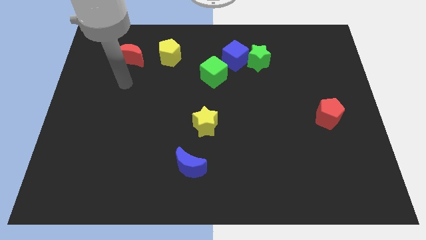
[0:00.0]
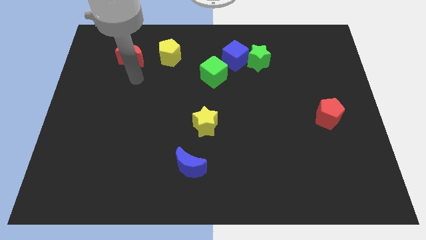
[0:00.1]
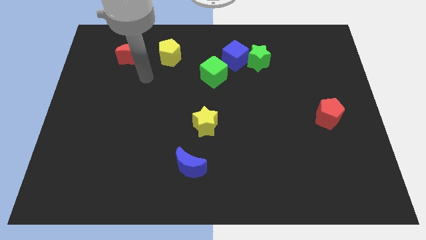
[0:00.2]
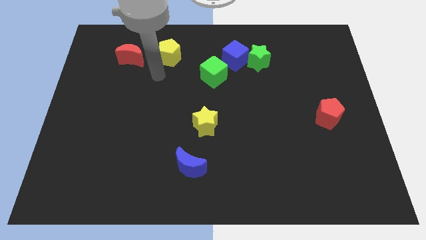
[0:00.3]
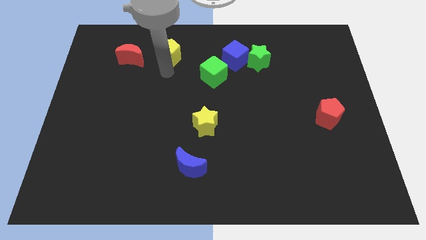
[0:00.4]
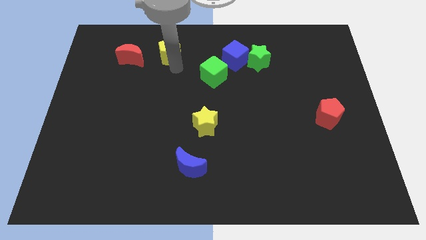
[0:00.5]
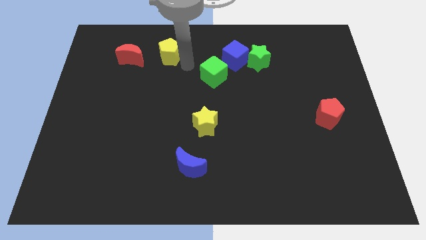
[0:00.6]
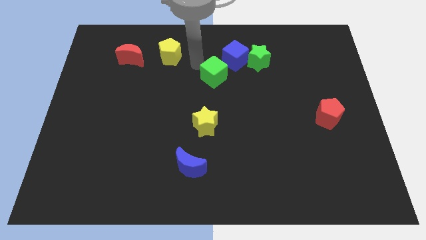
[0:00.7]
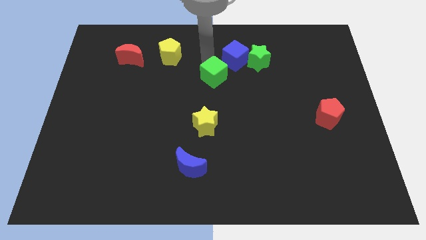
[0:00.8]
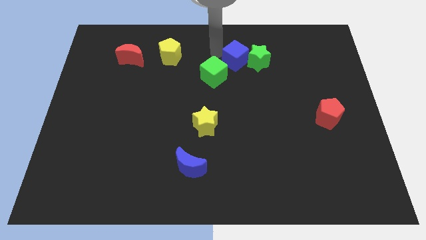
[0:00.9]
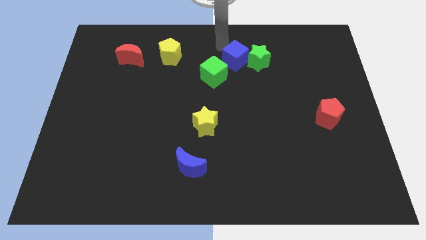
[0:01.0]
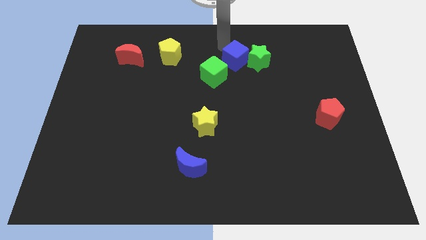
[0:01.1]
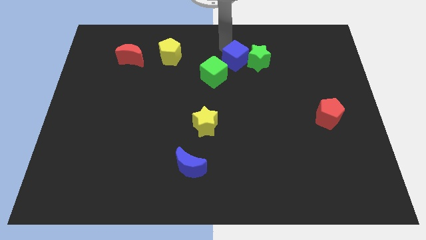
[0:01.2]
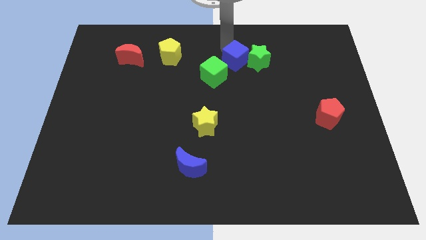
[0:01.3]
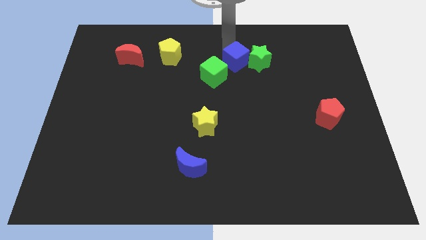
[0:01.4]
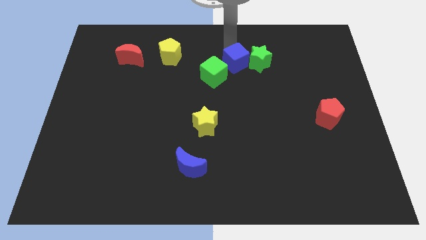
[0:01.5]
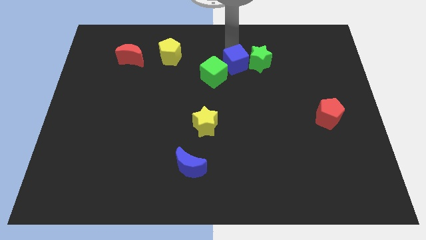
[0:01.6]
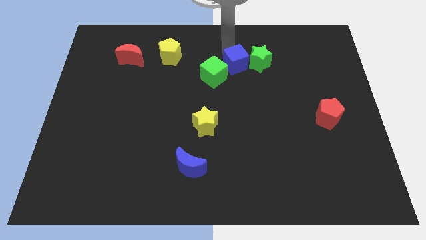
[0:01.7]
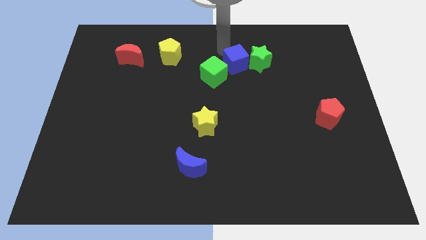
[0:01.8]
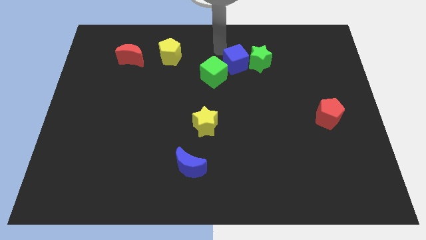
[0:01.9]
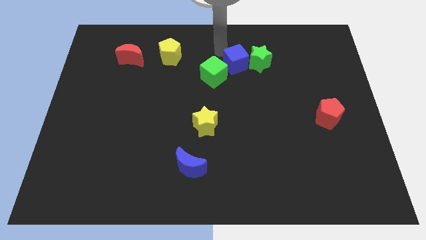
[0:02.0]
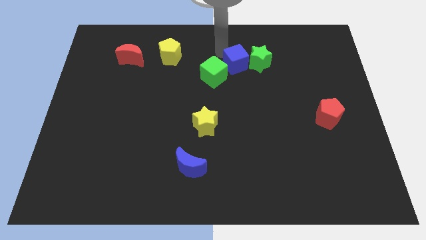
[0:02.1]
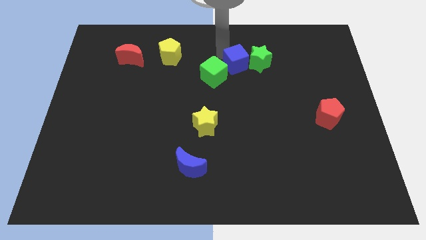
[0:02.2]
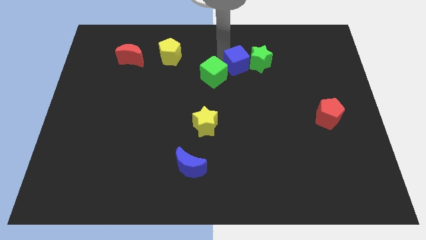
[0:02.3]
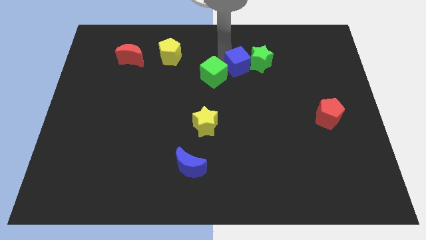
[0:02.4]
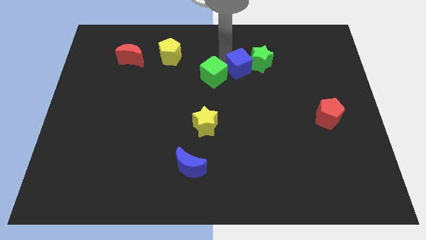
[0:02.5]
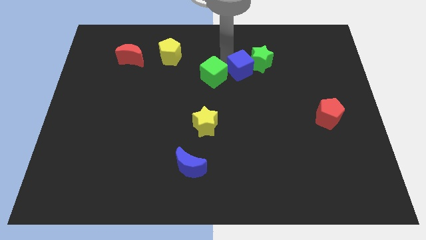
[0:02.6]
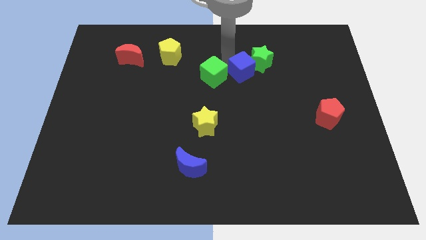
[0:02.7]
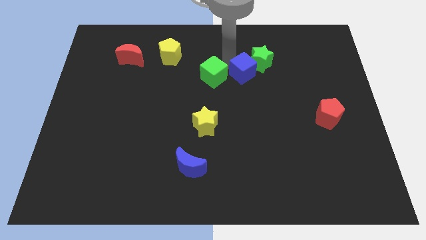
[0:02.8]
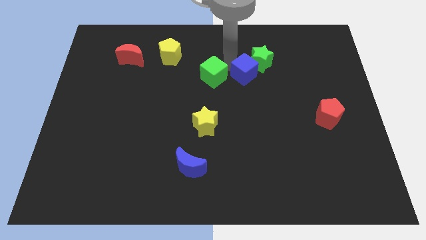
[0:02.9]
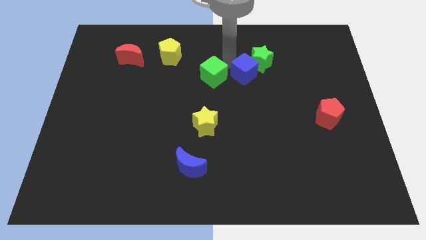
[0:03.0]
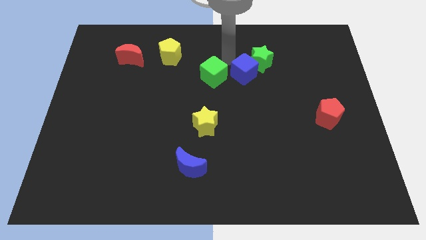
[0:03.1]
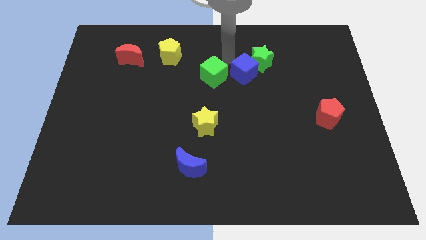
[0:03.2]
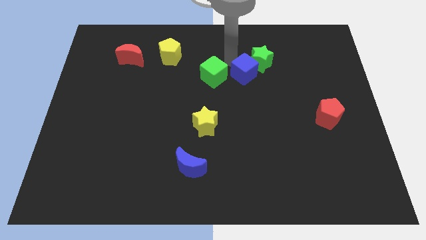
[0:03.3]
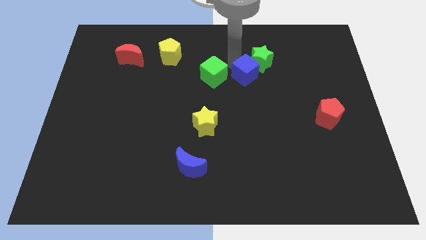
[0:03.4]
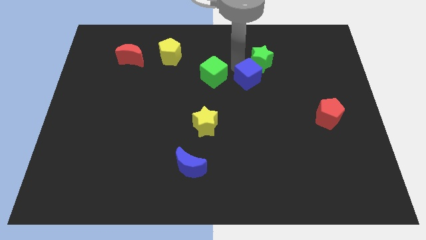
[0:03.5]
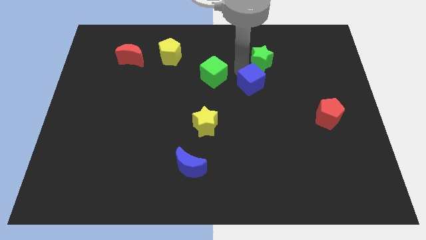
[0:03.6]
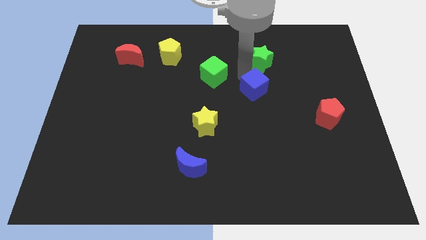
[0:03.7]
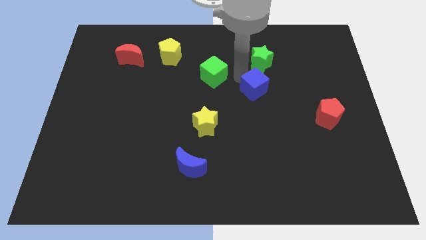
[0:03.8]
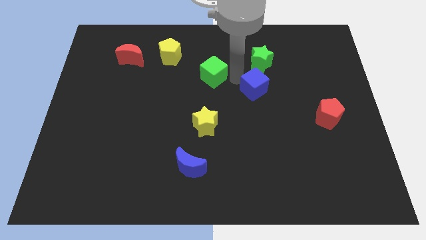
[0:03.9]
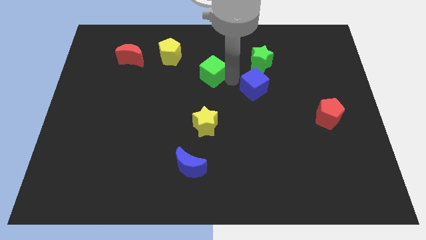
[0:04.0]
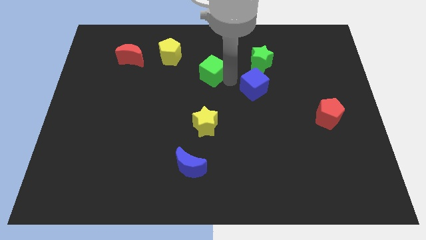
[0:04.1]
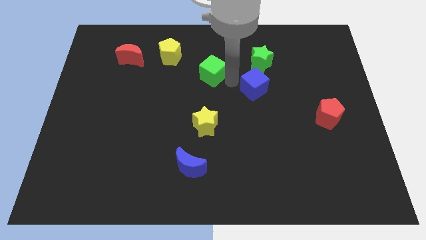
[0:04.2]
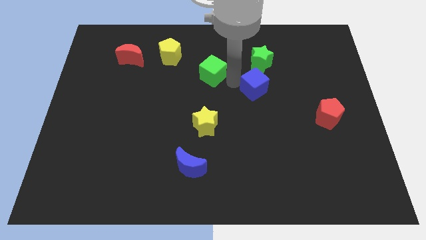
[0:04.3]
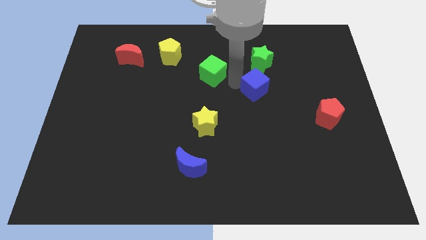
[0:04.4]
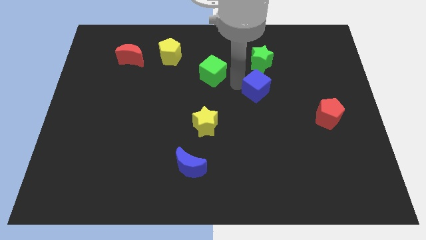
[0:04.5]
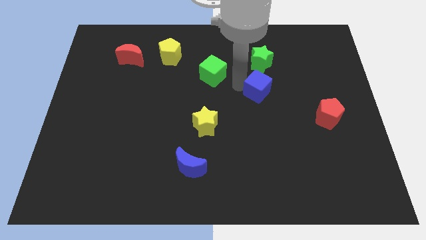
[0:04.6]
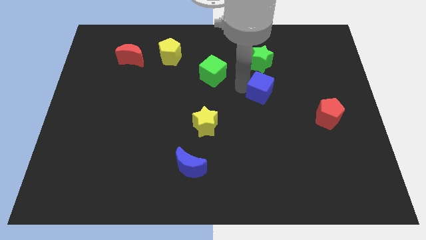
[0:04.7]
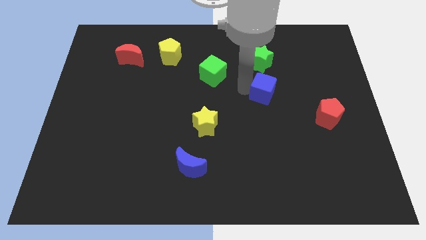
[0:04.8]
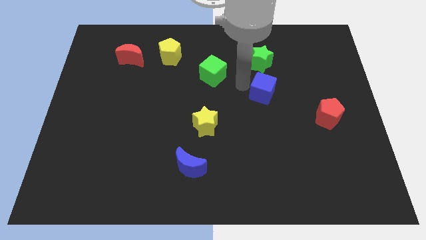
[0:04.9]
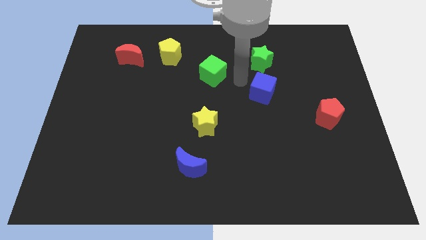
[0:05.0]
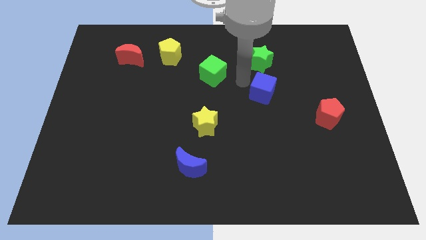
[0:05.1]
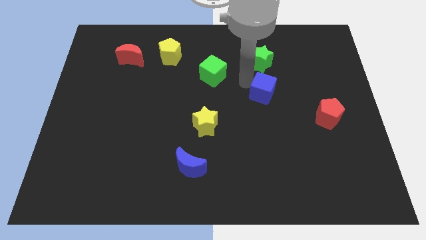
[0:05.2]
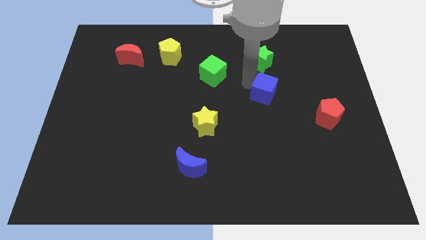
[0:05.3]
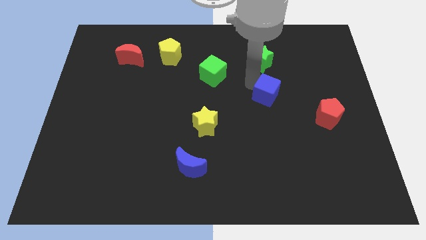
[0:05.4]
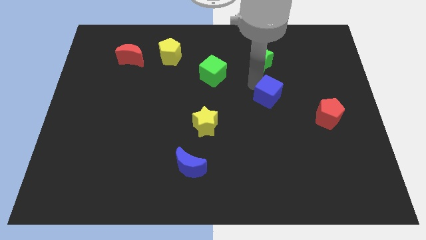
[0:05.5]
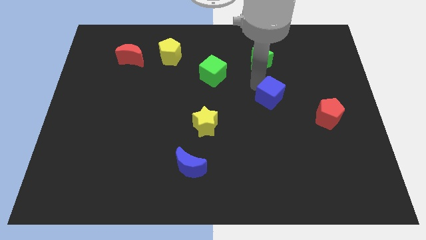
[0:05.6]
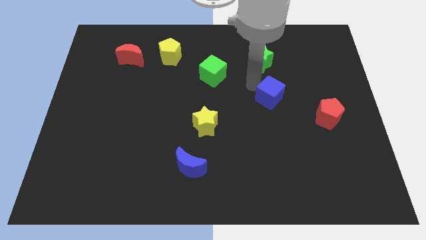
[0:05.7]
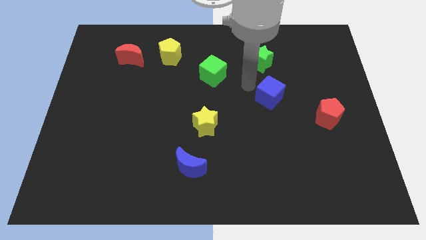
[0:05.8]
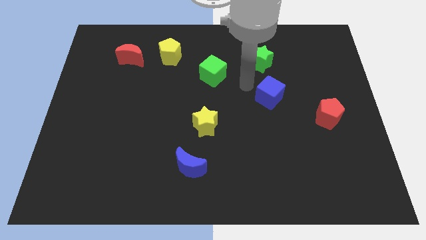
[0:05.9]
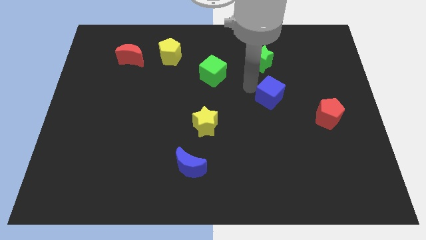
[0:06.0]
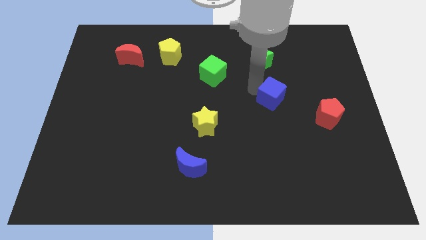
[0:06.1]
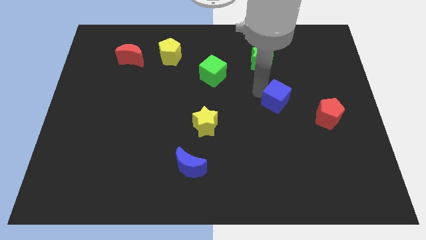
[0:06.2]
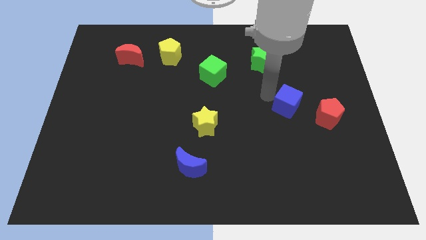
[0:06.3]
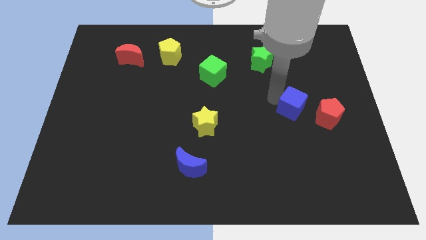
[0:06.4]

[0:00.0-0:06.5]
slide the blue cube down and then to the right

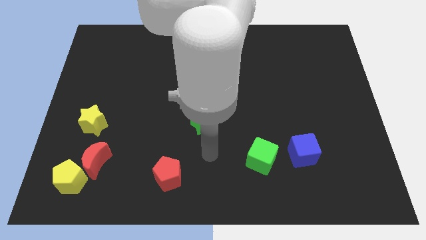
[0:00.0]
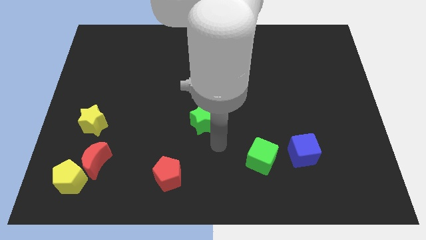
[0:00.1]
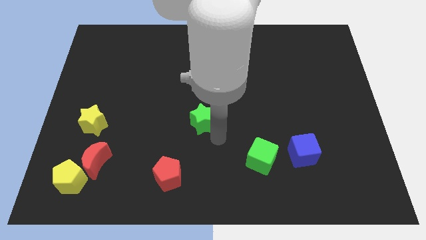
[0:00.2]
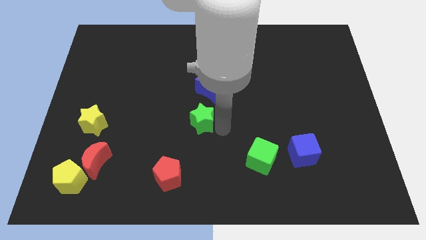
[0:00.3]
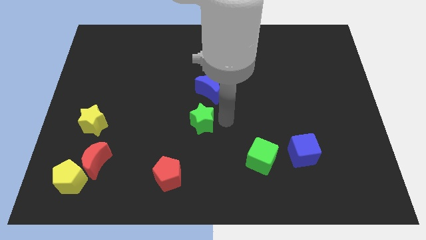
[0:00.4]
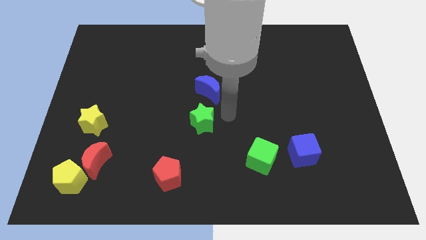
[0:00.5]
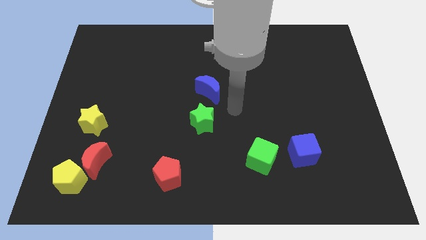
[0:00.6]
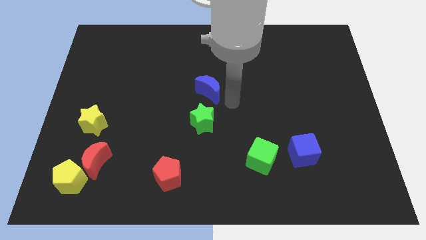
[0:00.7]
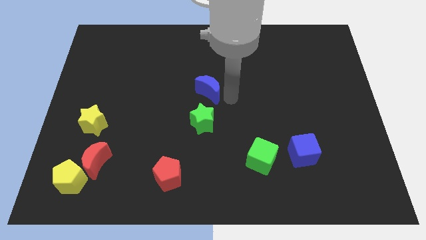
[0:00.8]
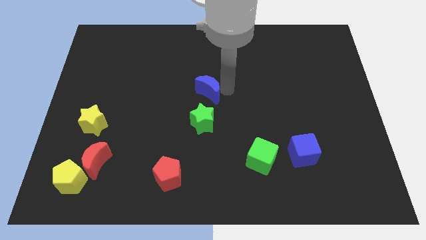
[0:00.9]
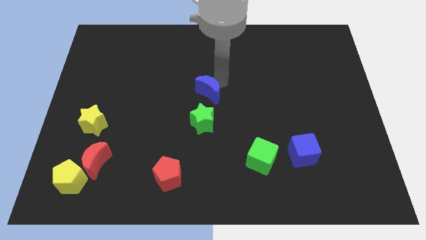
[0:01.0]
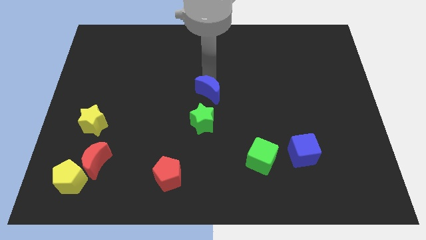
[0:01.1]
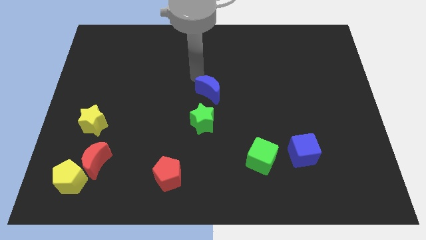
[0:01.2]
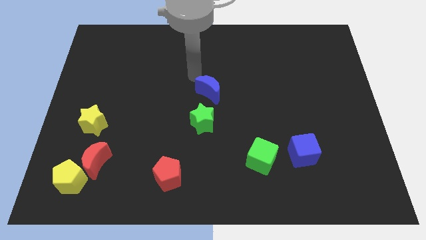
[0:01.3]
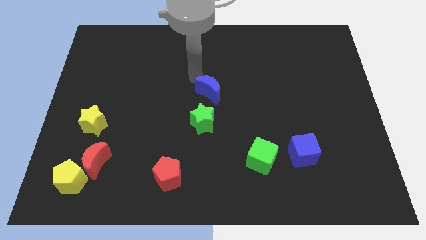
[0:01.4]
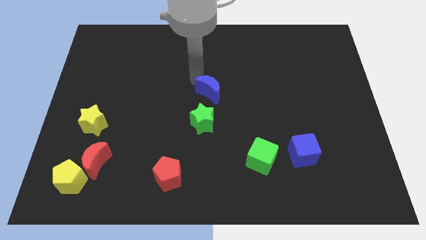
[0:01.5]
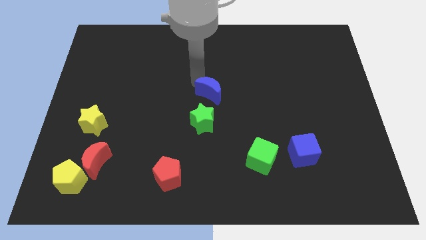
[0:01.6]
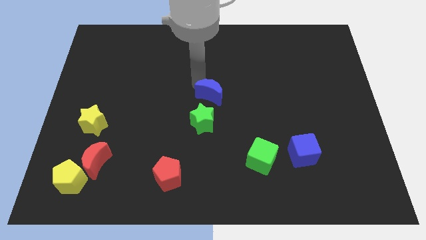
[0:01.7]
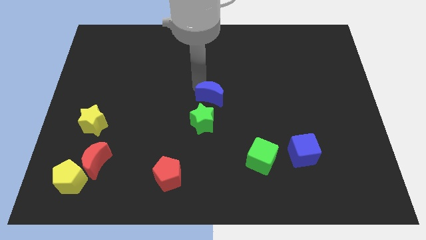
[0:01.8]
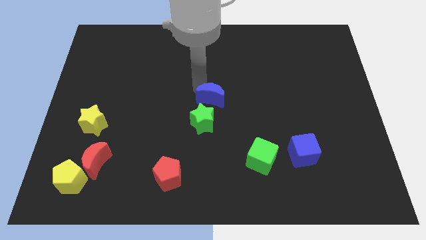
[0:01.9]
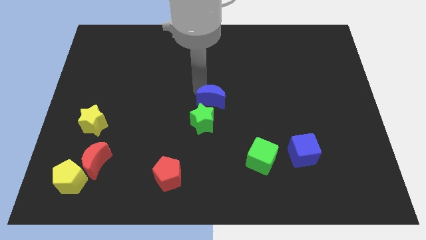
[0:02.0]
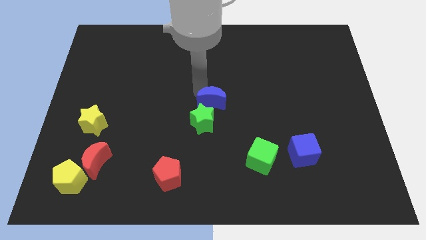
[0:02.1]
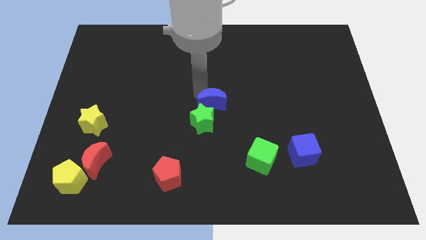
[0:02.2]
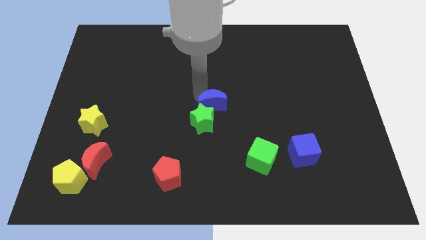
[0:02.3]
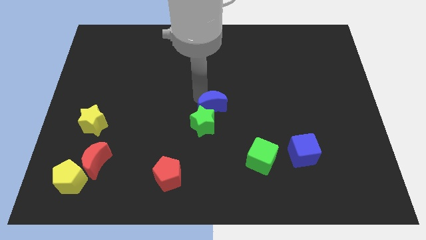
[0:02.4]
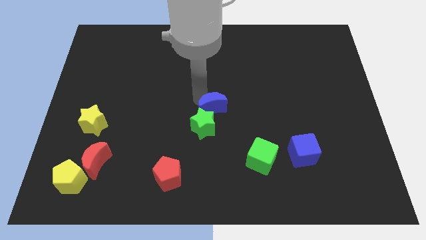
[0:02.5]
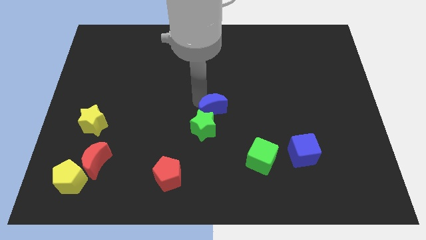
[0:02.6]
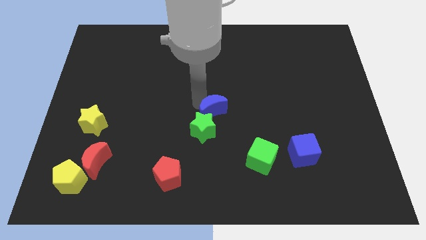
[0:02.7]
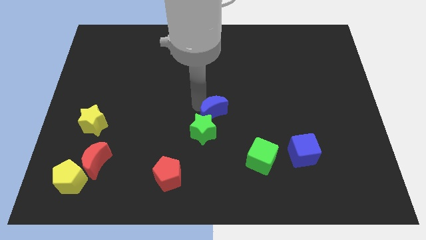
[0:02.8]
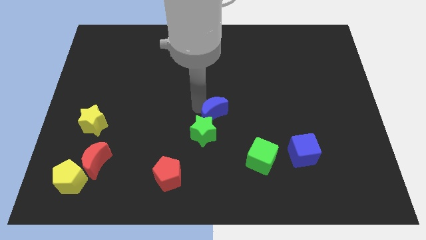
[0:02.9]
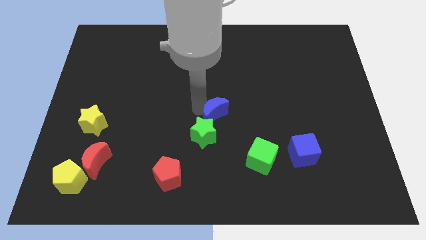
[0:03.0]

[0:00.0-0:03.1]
push the blue moon downwards a bit
